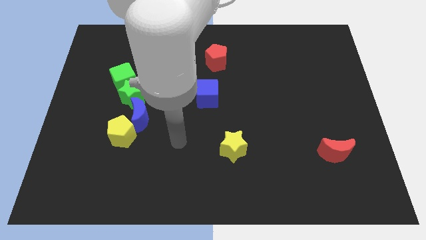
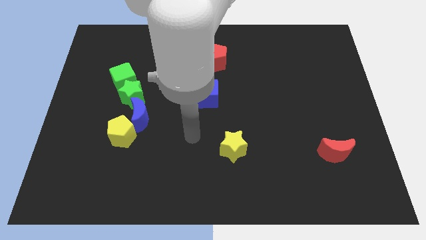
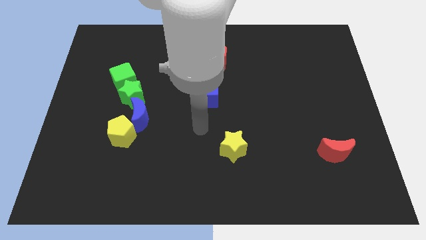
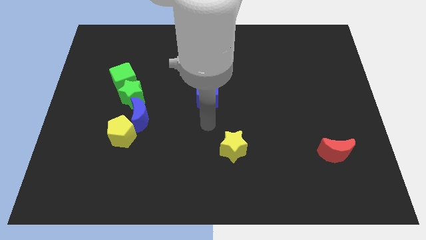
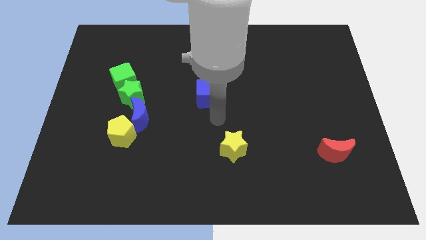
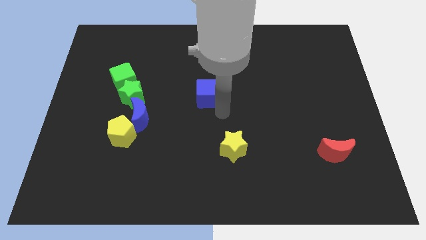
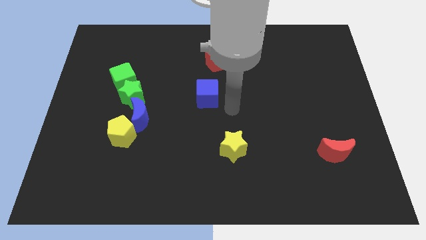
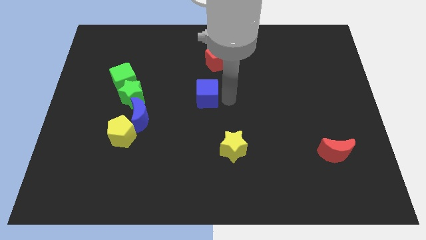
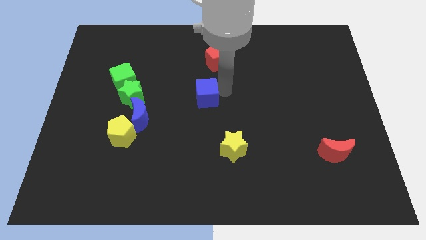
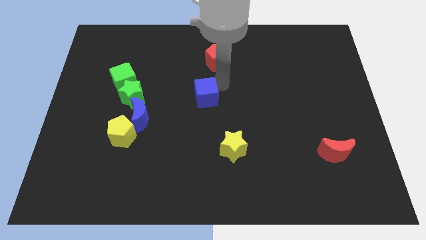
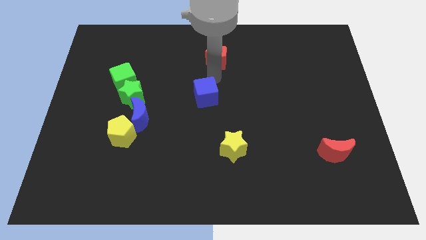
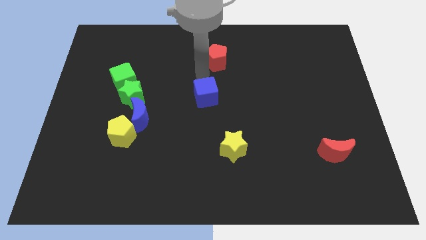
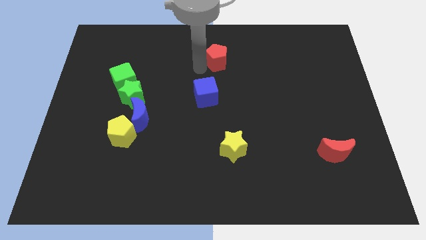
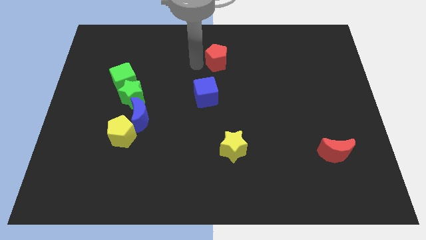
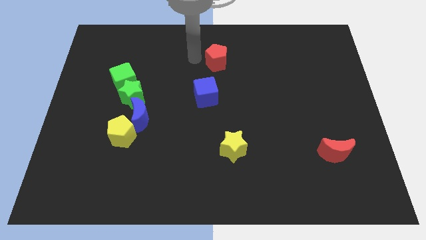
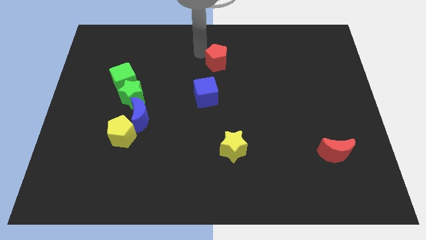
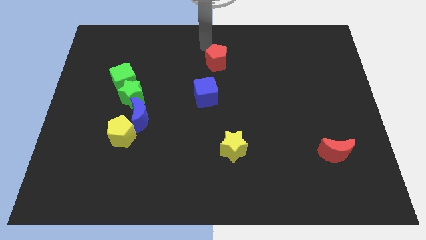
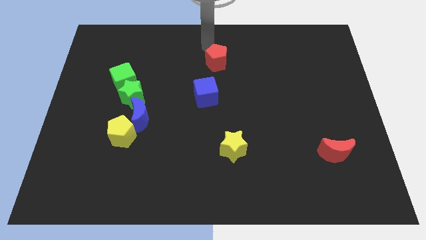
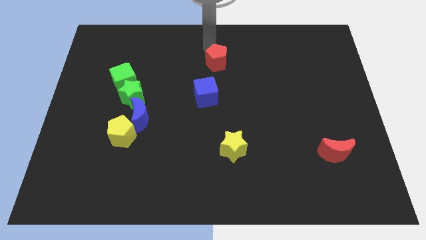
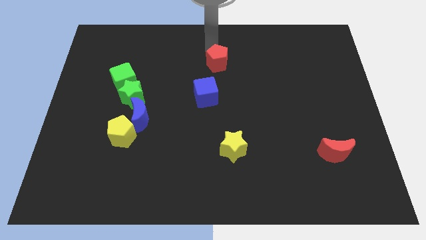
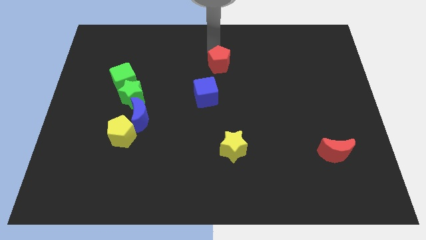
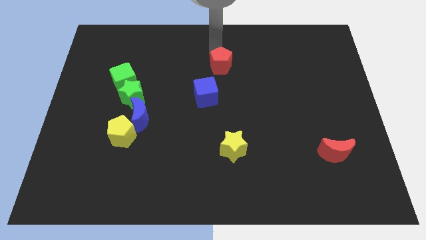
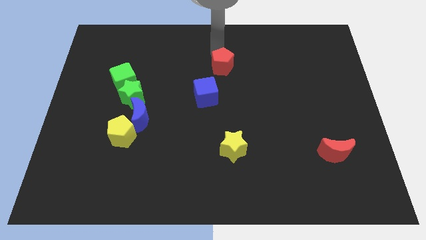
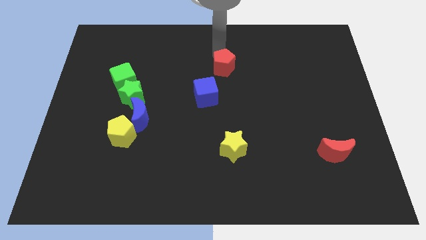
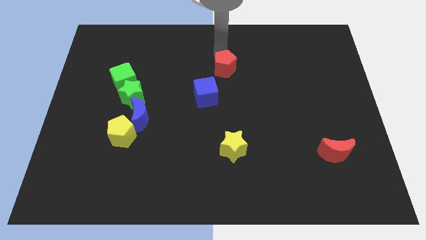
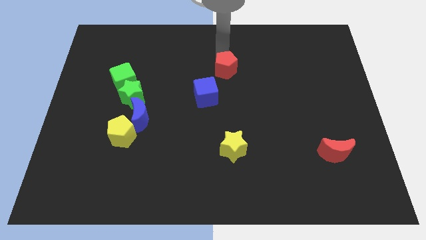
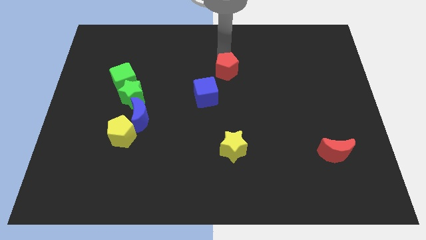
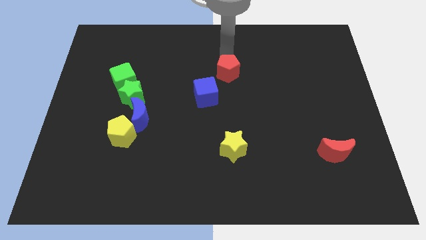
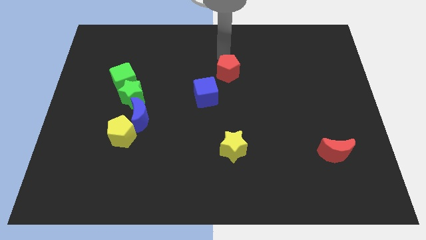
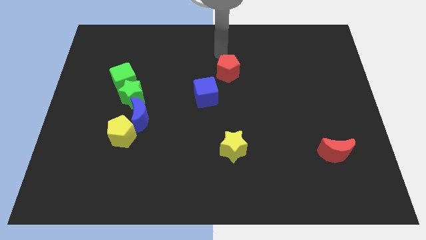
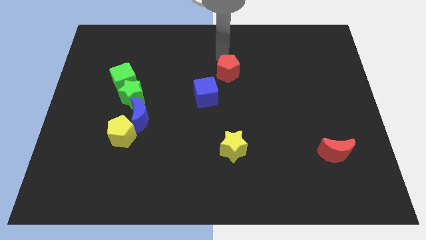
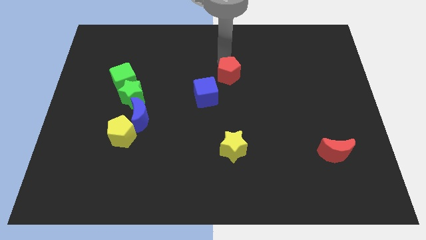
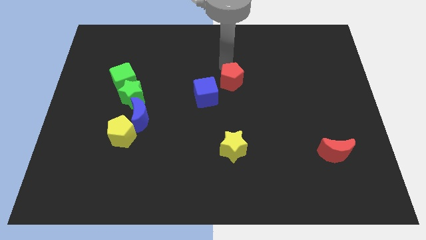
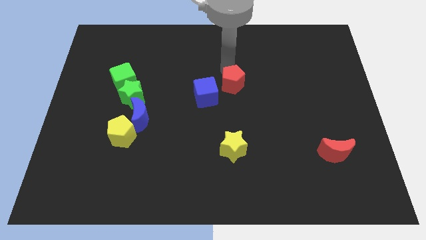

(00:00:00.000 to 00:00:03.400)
slightly move the red pentagon down

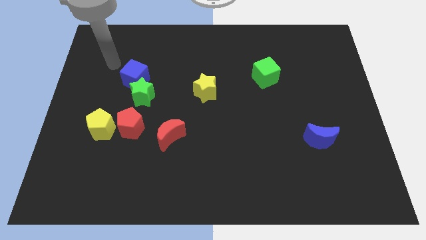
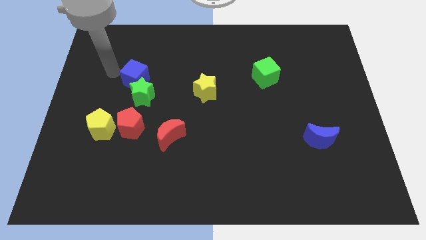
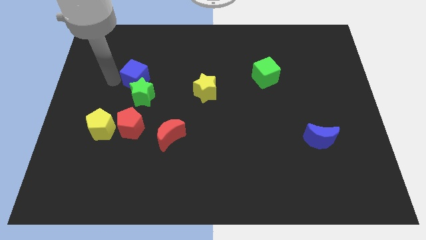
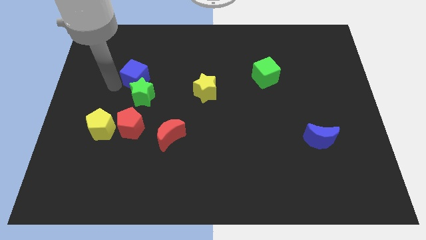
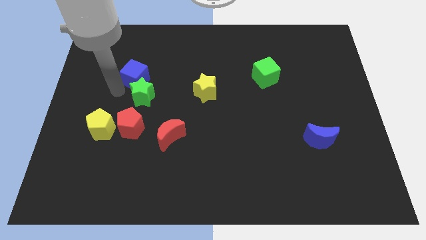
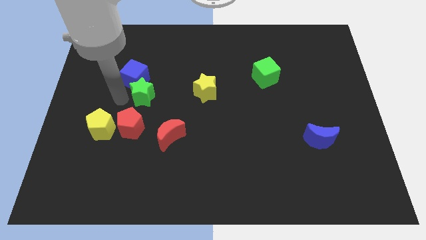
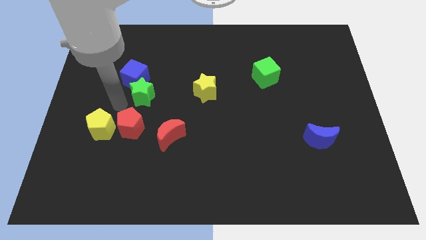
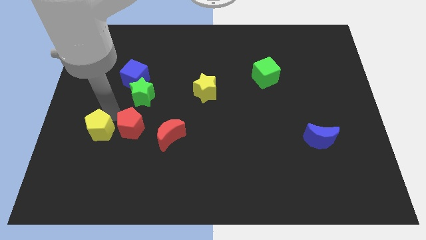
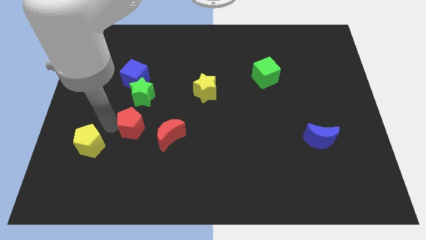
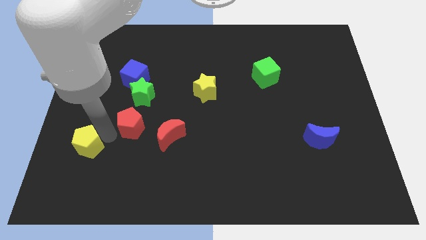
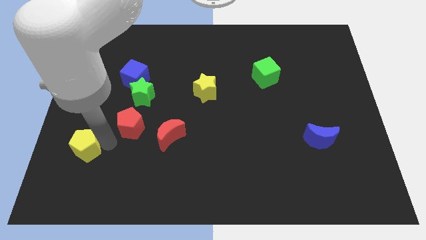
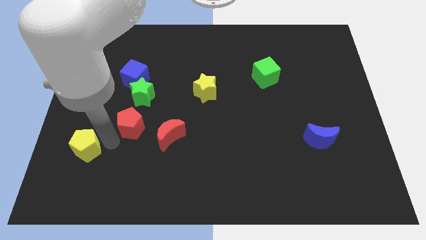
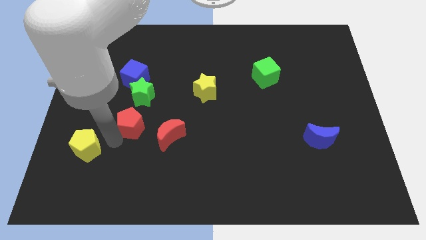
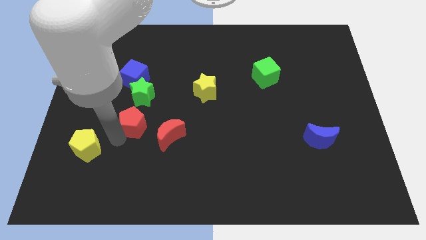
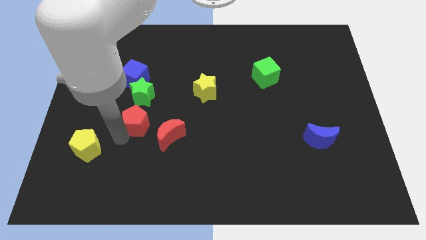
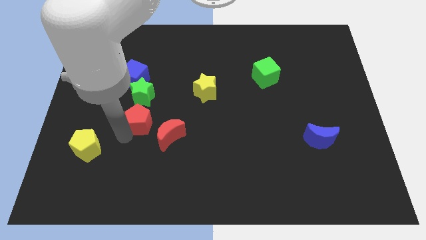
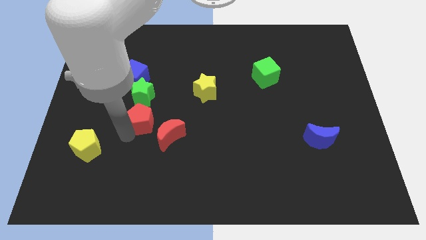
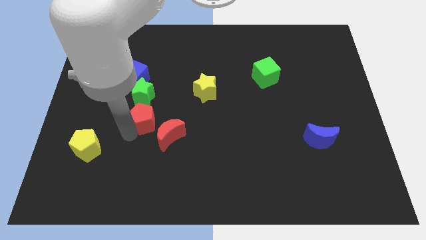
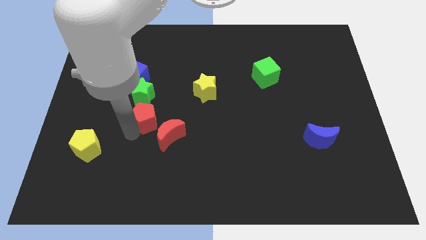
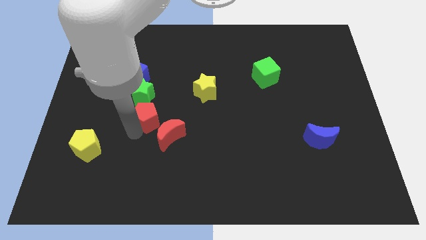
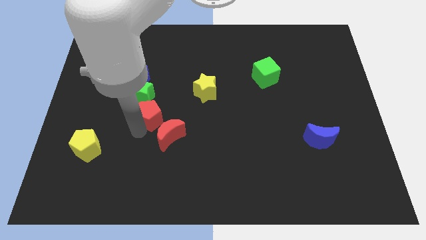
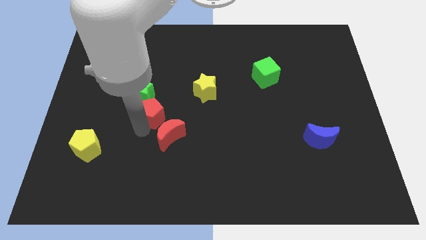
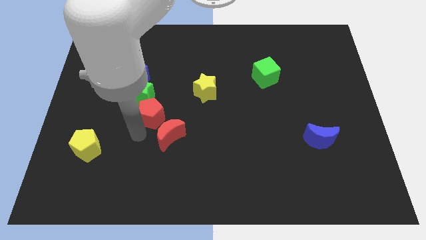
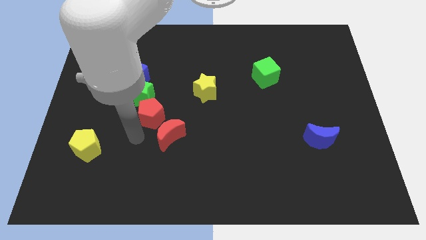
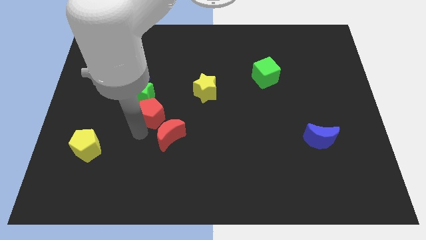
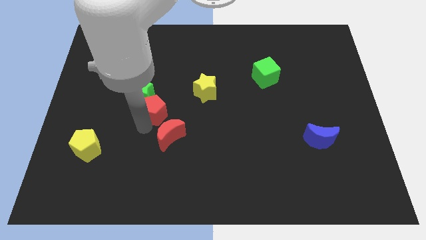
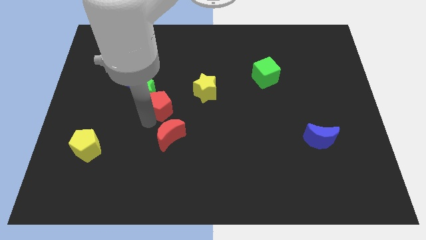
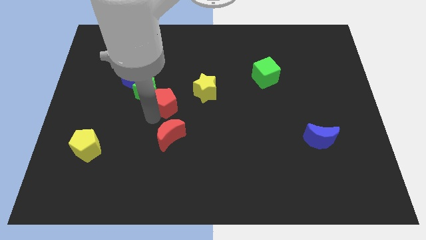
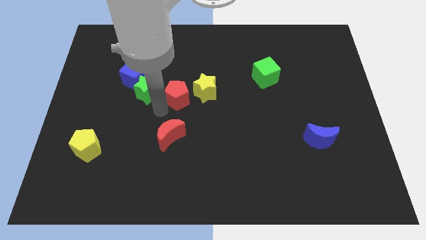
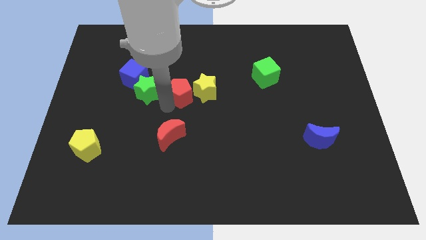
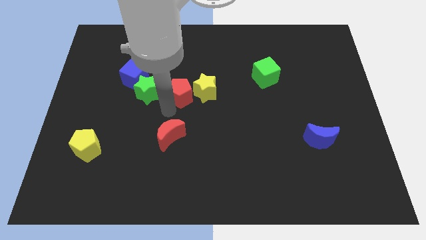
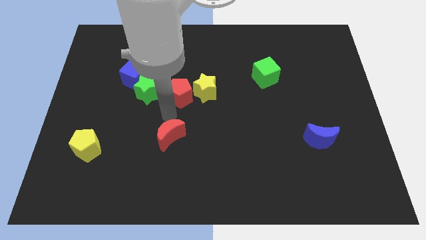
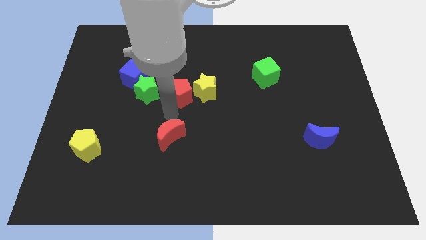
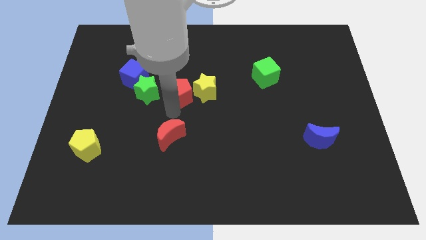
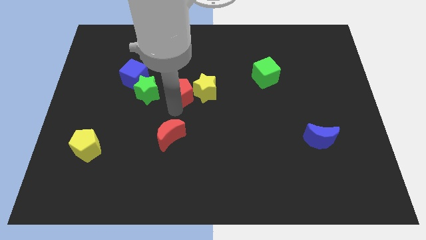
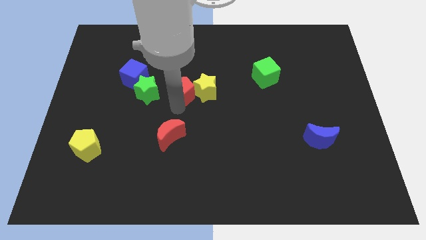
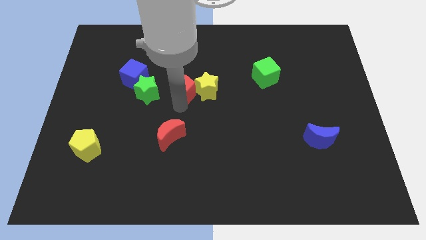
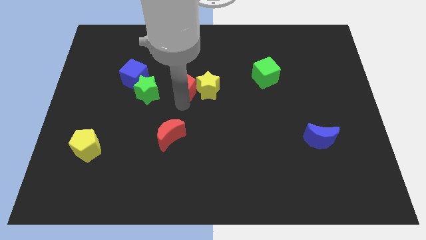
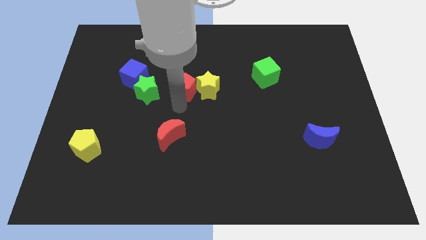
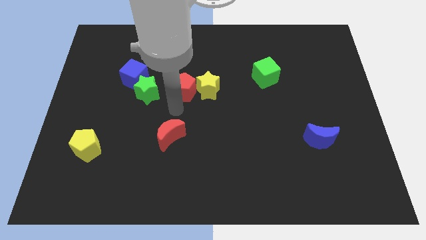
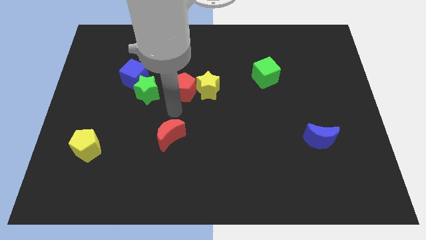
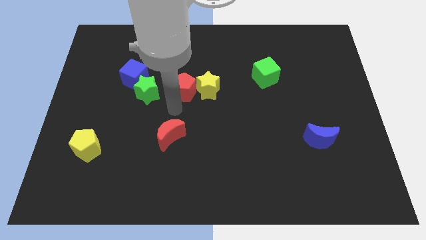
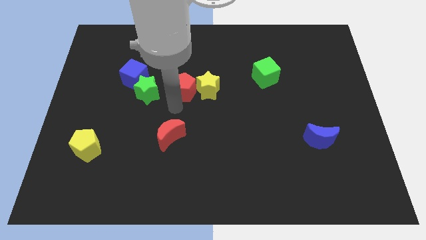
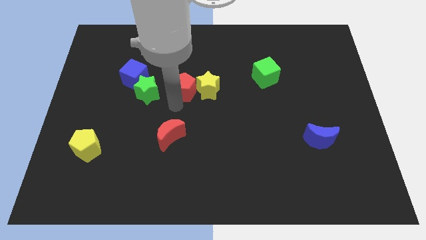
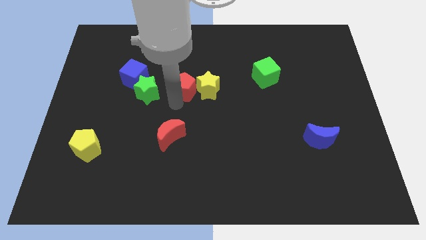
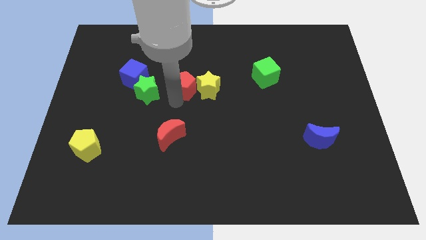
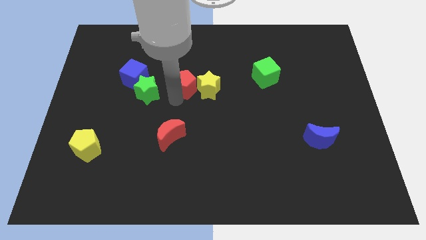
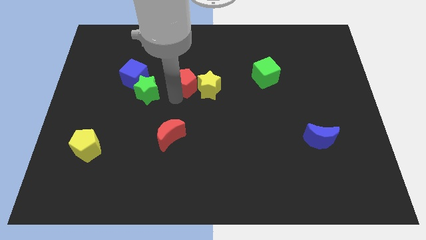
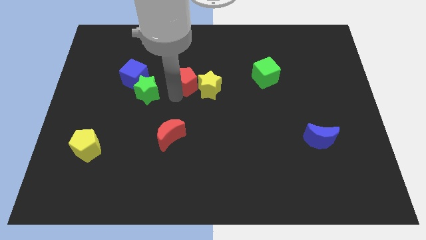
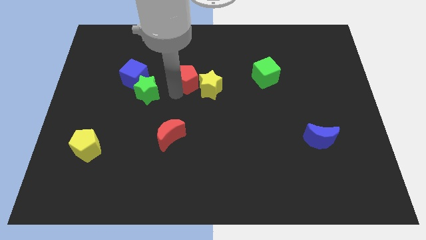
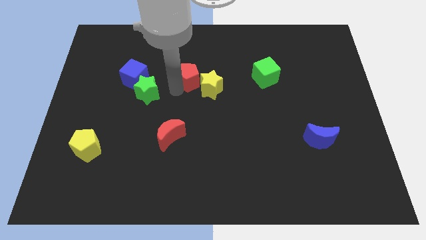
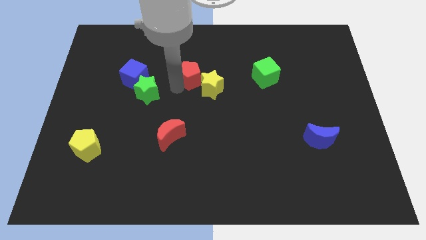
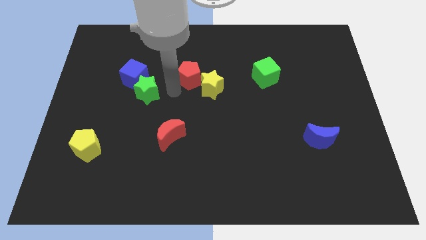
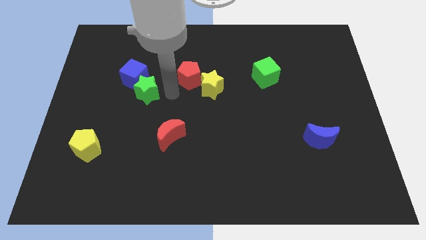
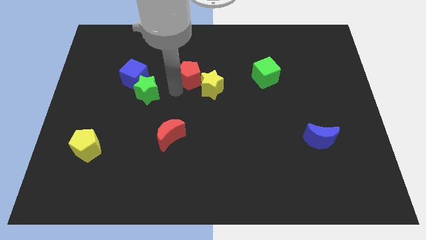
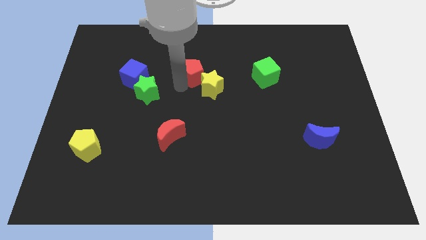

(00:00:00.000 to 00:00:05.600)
slide the red pentagon up and then to the right
